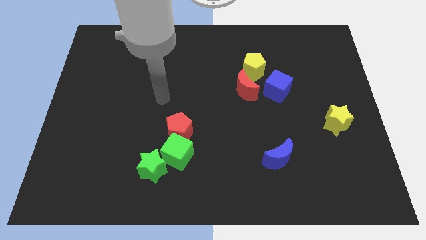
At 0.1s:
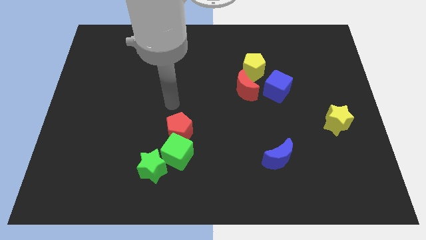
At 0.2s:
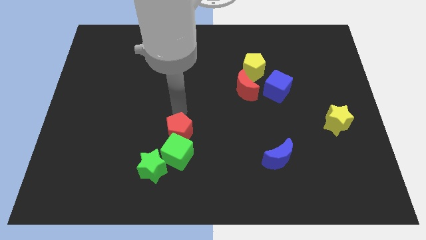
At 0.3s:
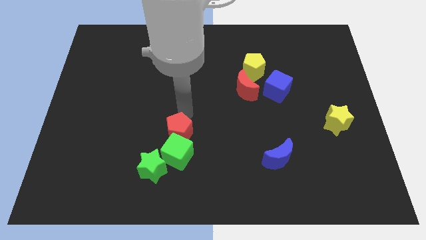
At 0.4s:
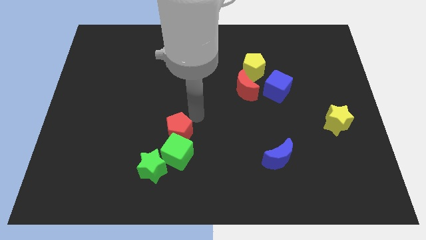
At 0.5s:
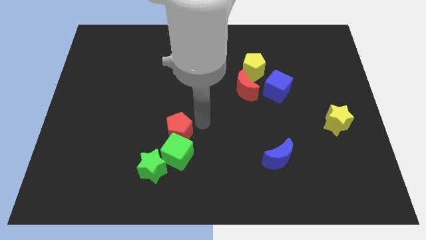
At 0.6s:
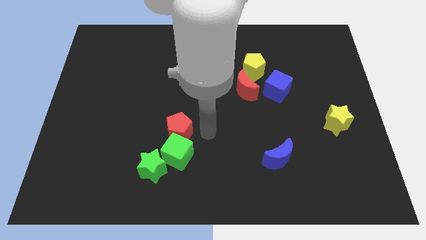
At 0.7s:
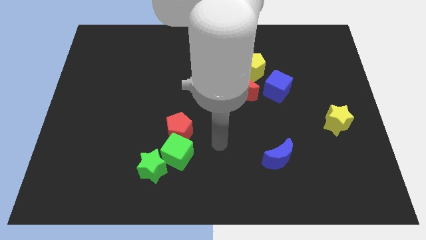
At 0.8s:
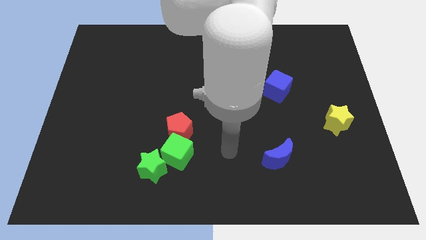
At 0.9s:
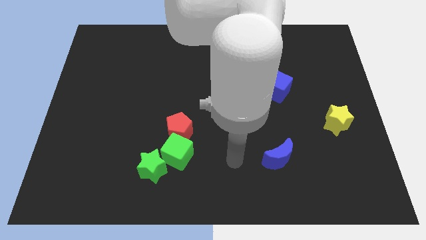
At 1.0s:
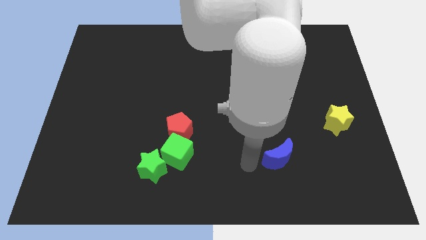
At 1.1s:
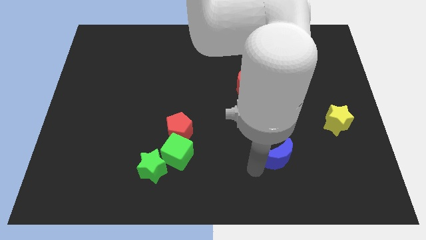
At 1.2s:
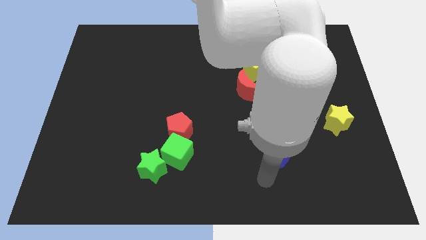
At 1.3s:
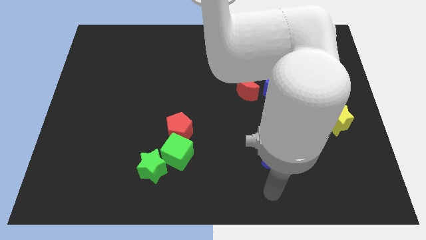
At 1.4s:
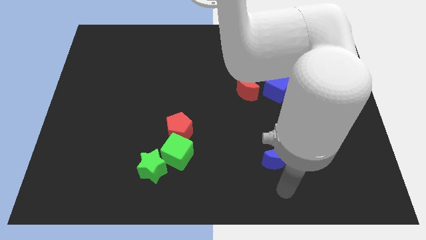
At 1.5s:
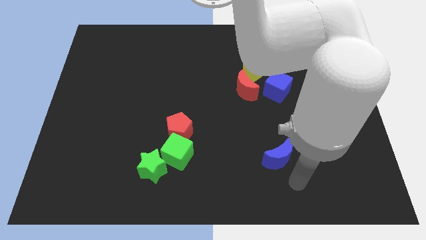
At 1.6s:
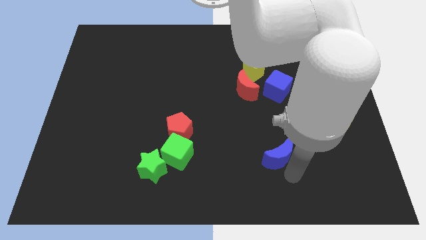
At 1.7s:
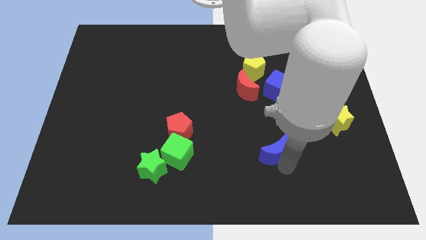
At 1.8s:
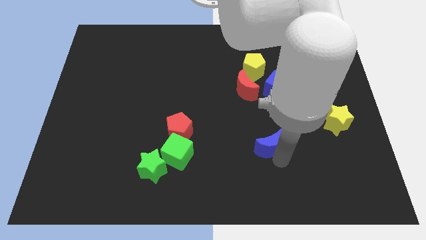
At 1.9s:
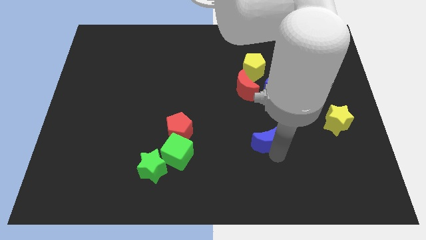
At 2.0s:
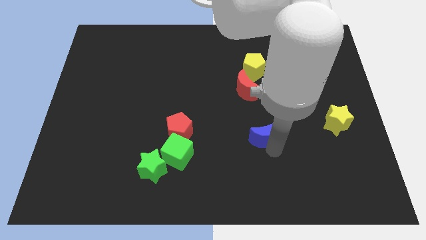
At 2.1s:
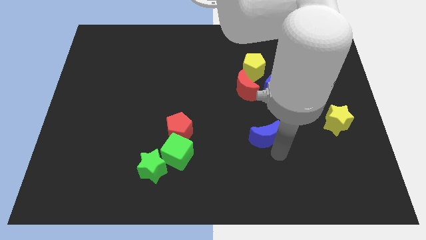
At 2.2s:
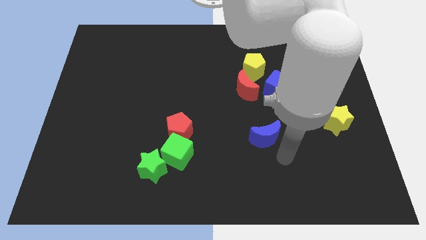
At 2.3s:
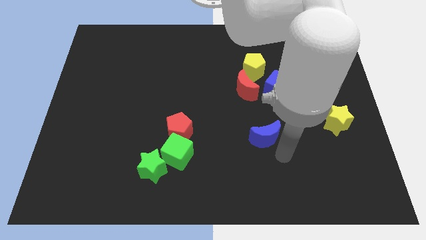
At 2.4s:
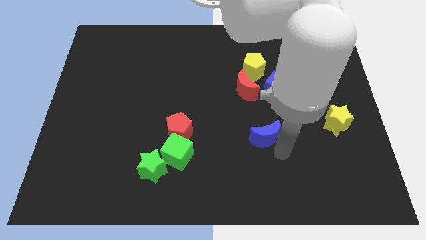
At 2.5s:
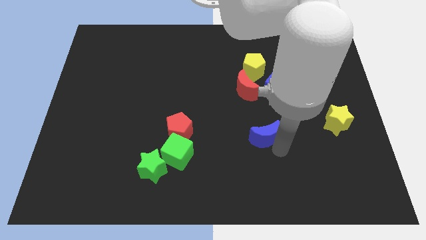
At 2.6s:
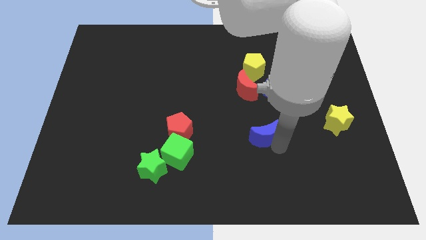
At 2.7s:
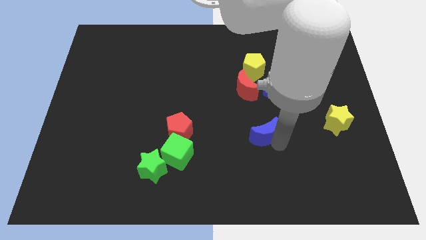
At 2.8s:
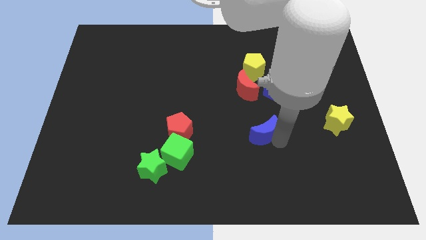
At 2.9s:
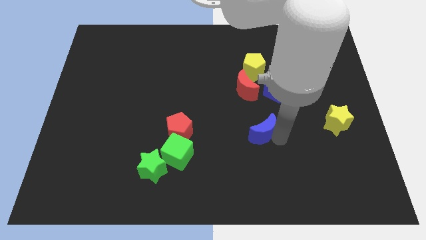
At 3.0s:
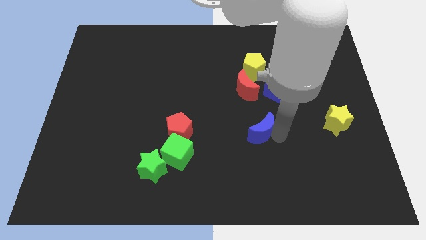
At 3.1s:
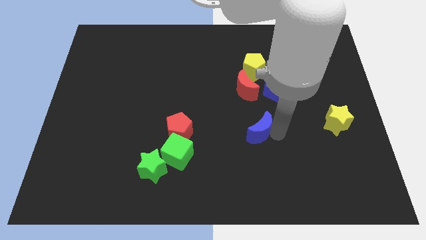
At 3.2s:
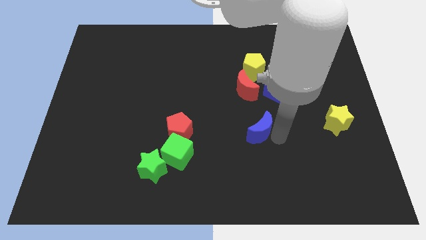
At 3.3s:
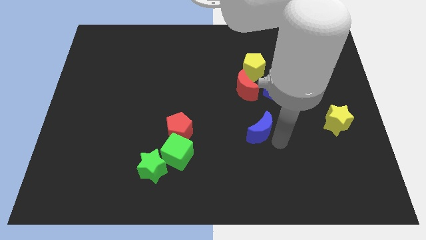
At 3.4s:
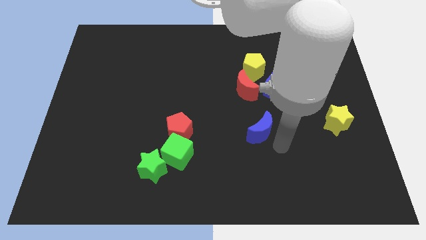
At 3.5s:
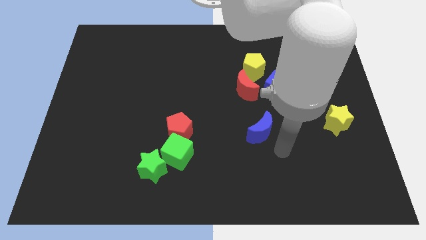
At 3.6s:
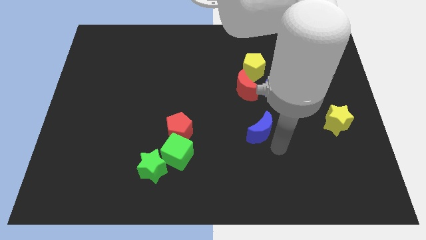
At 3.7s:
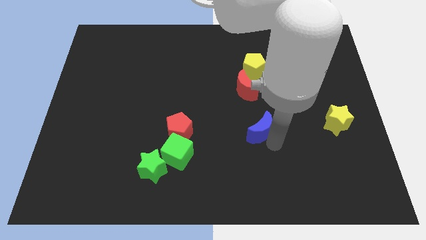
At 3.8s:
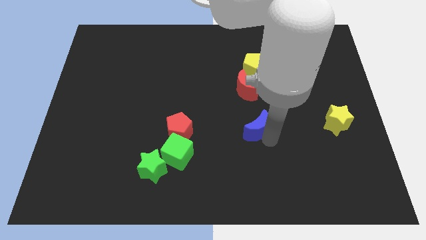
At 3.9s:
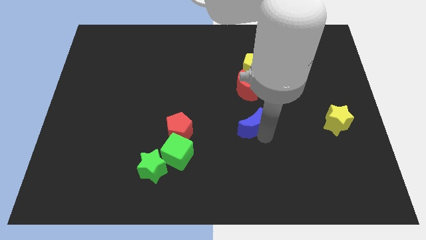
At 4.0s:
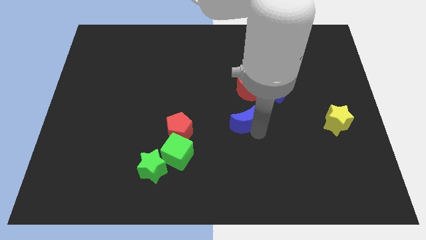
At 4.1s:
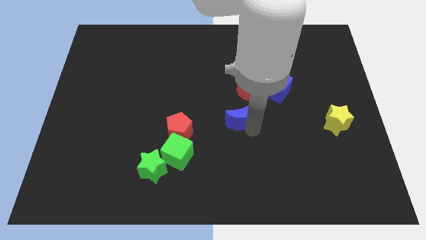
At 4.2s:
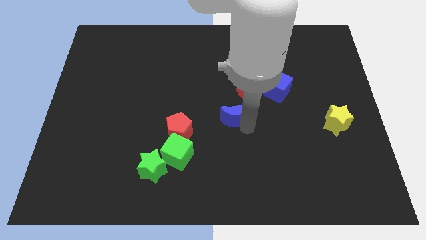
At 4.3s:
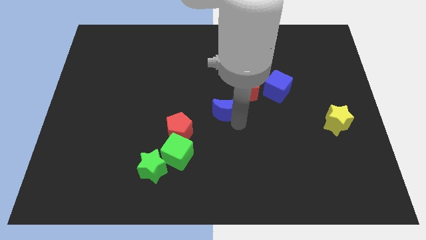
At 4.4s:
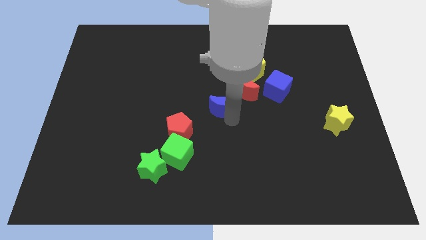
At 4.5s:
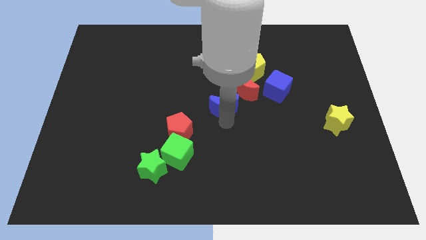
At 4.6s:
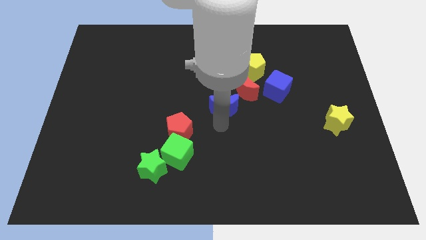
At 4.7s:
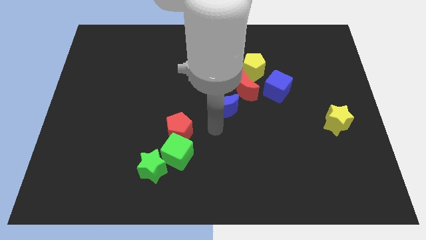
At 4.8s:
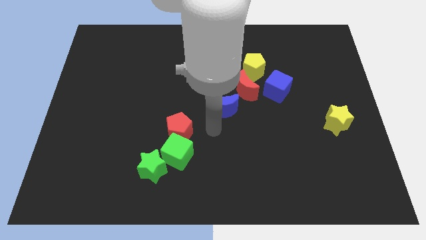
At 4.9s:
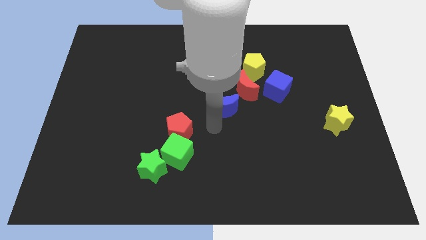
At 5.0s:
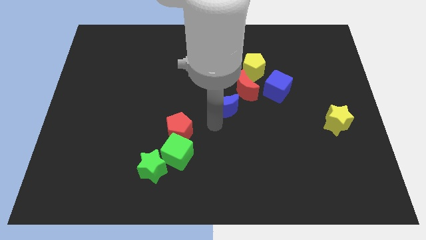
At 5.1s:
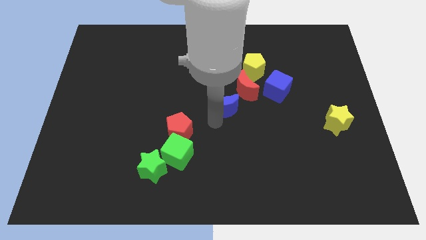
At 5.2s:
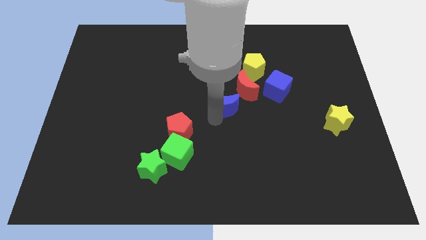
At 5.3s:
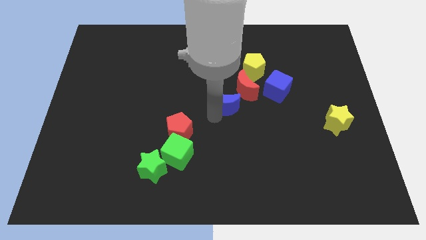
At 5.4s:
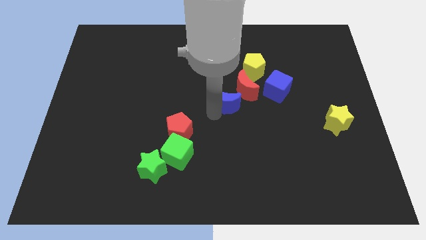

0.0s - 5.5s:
push the blue moon to the left of the blue cube
